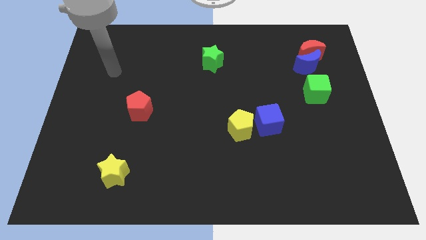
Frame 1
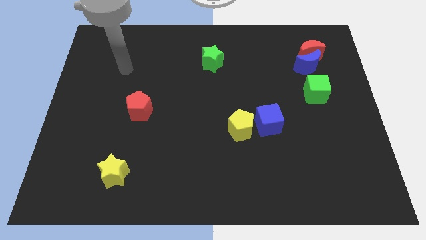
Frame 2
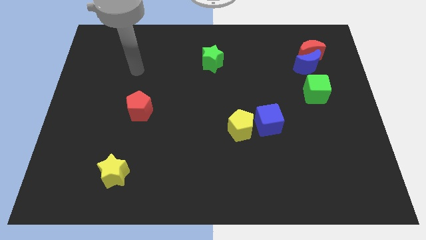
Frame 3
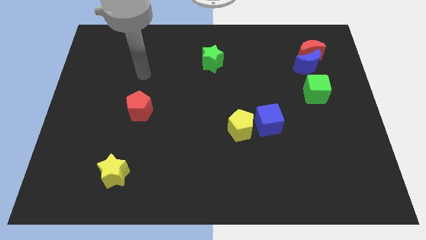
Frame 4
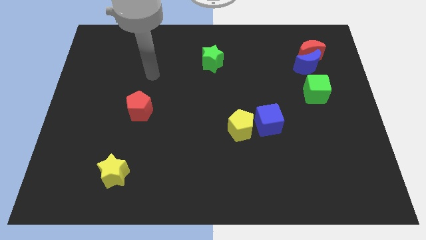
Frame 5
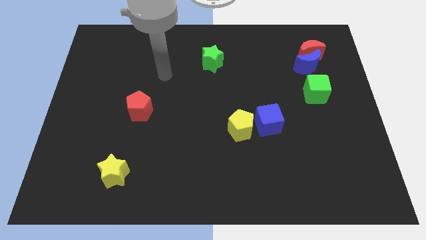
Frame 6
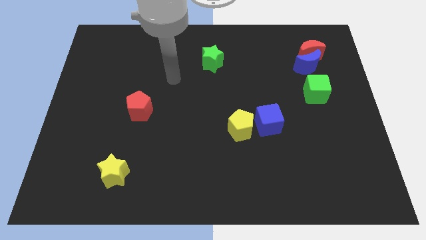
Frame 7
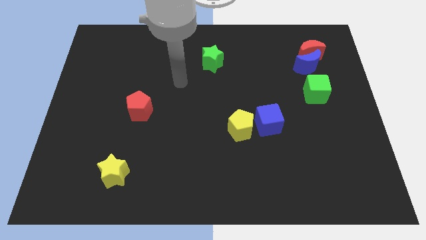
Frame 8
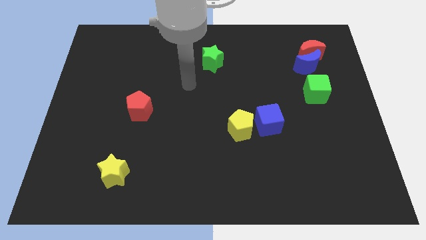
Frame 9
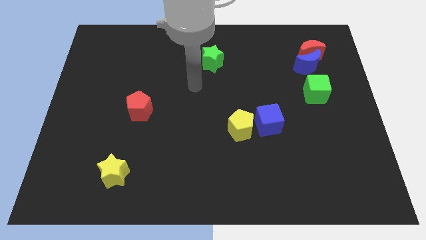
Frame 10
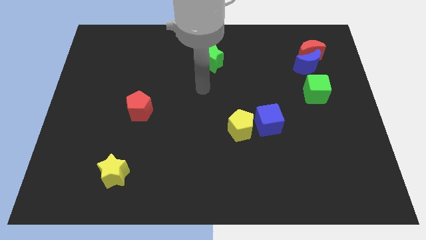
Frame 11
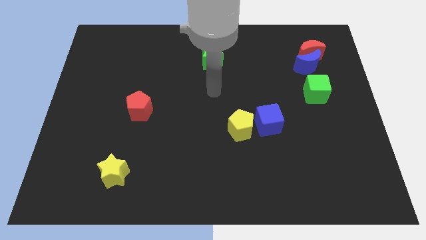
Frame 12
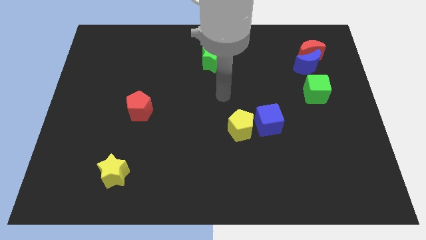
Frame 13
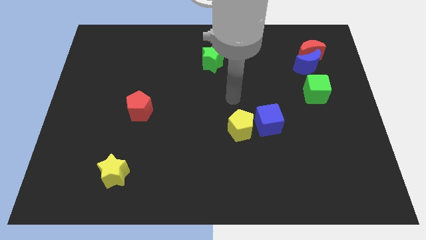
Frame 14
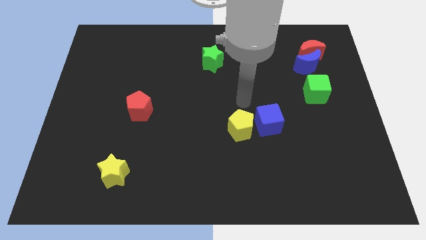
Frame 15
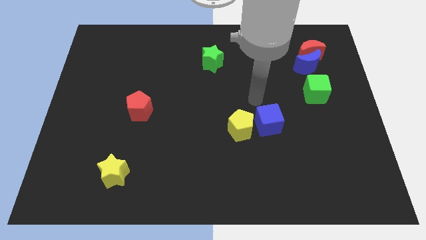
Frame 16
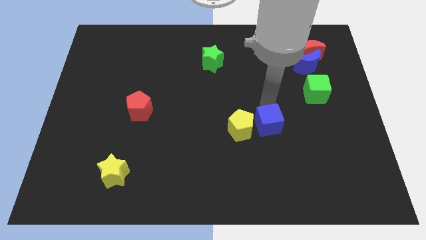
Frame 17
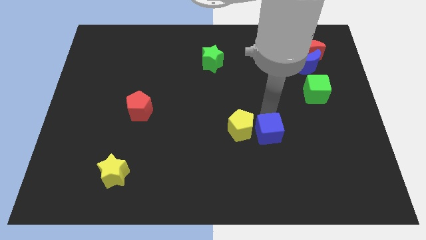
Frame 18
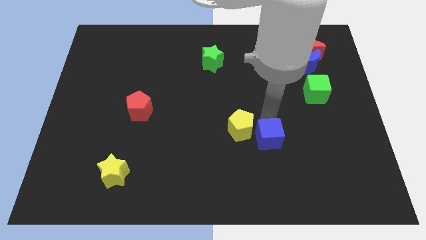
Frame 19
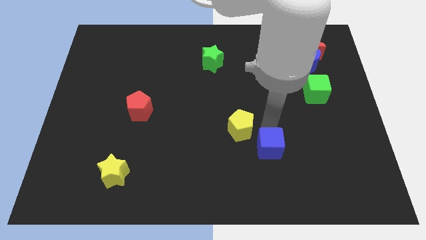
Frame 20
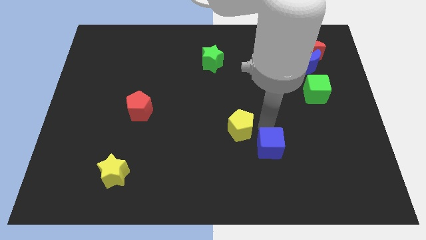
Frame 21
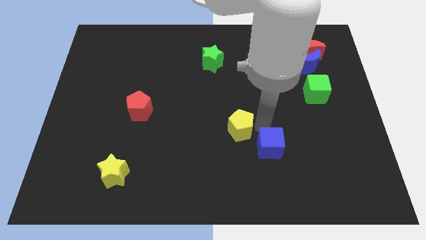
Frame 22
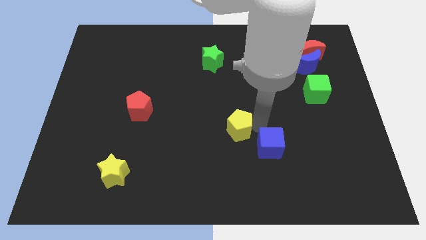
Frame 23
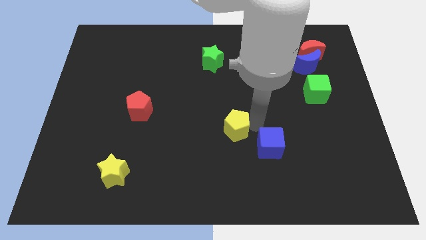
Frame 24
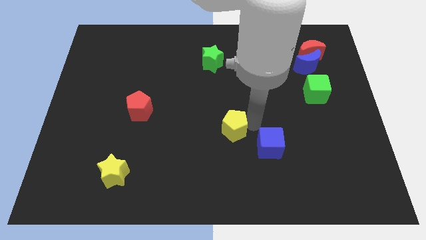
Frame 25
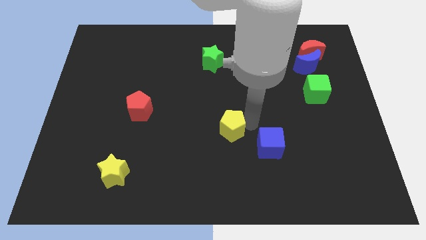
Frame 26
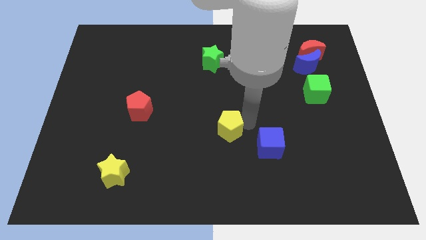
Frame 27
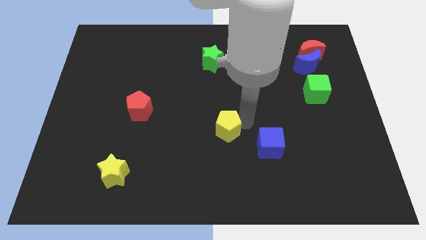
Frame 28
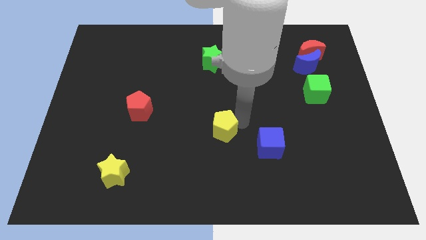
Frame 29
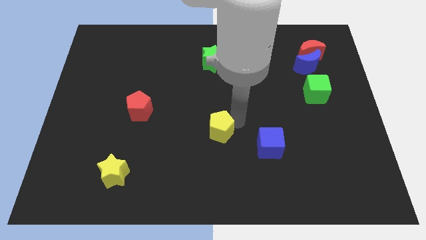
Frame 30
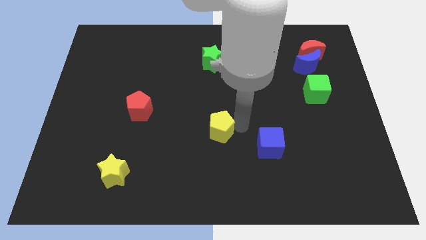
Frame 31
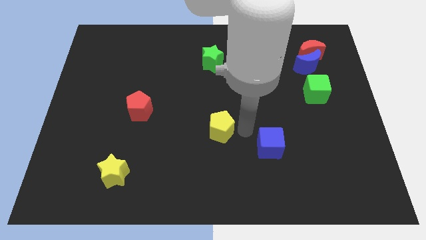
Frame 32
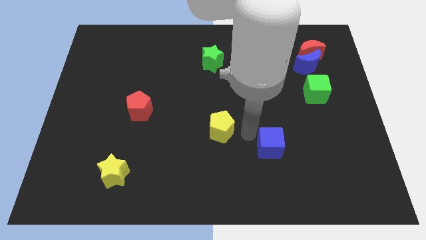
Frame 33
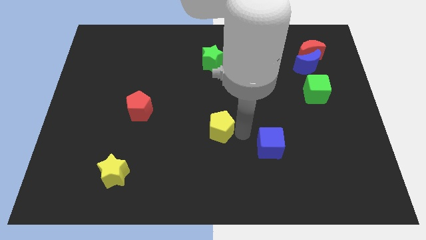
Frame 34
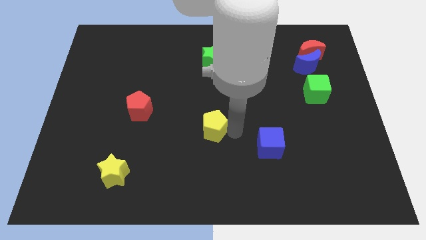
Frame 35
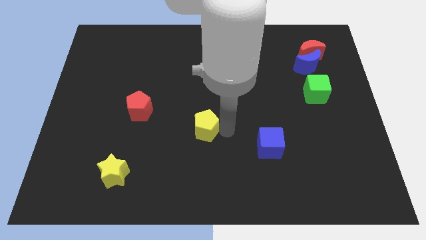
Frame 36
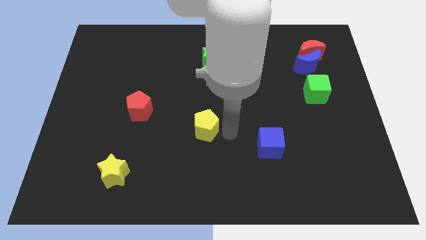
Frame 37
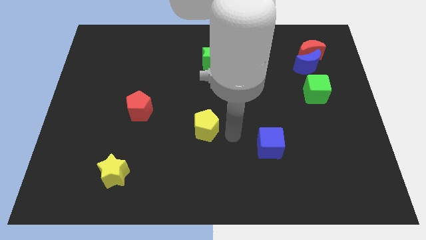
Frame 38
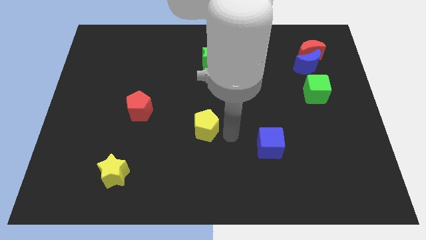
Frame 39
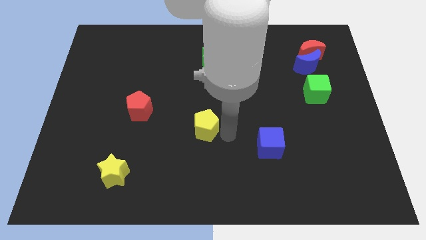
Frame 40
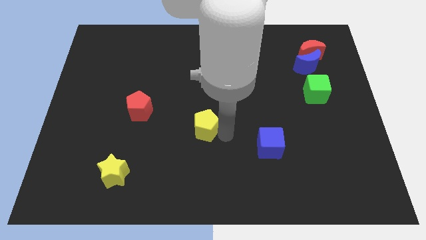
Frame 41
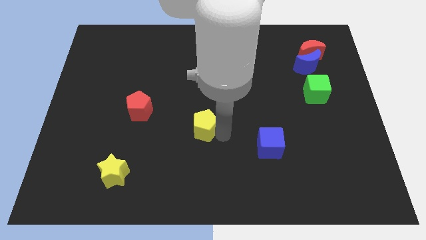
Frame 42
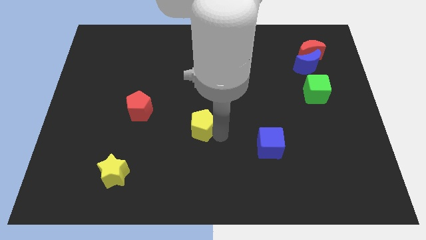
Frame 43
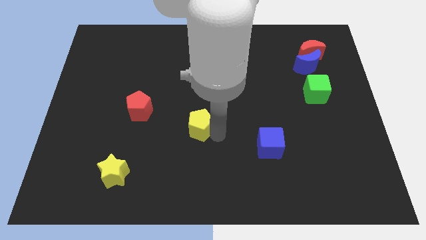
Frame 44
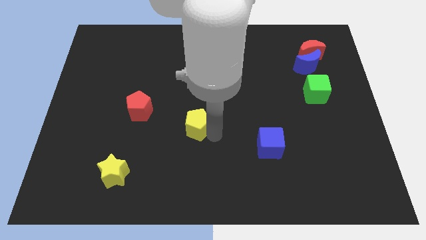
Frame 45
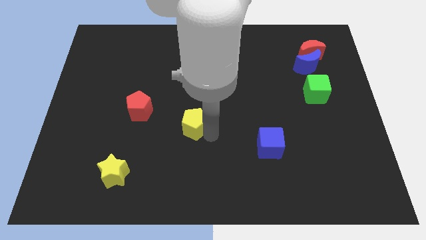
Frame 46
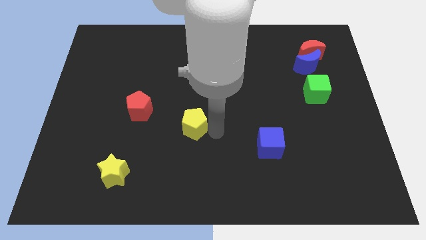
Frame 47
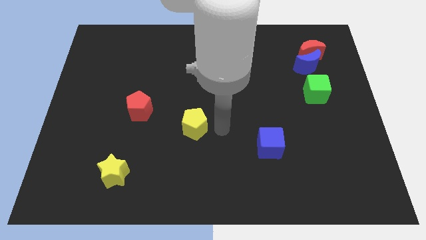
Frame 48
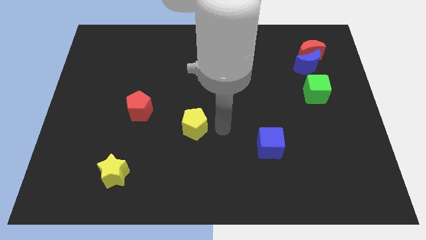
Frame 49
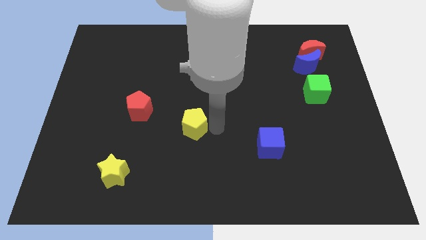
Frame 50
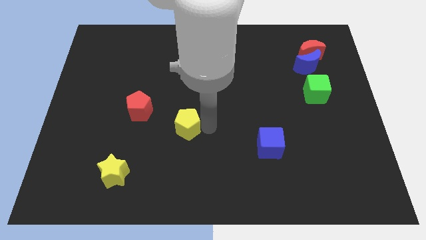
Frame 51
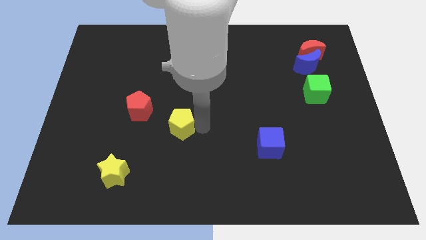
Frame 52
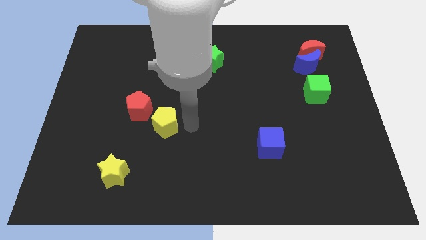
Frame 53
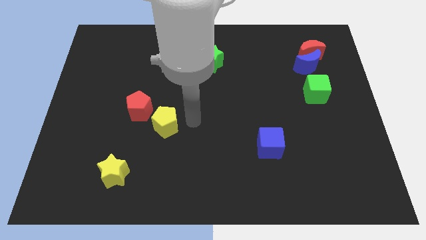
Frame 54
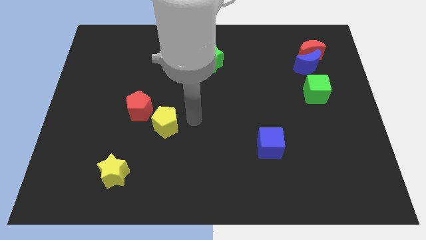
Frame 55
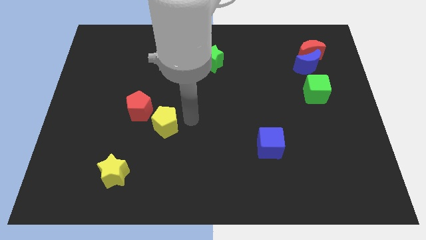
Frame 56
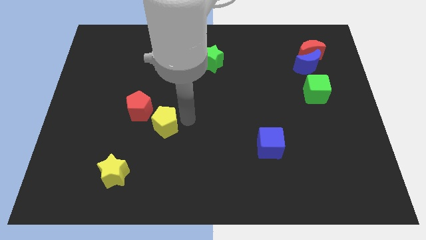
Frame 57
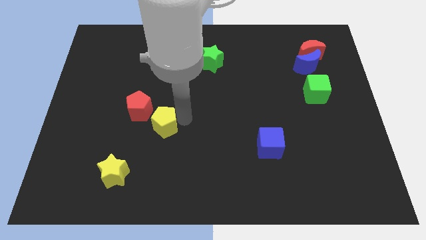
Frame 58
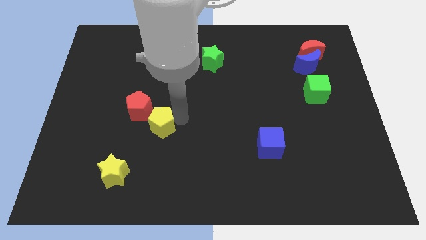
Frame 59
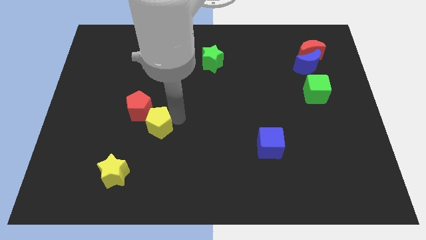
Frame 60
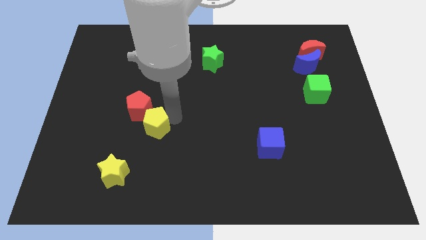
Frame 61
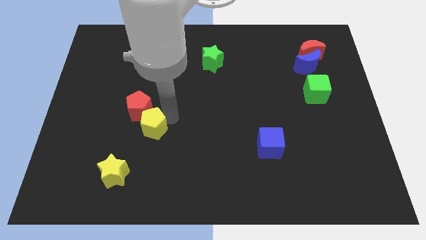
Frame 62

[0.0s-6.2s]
push the yellow pentagon to the left

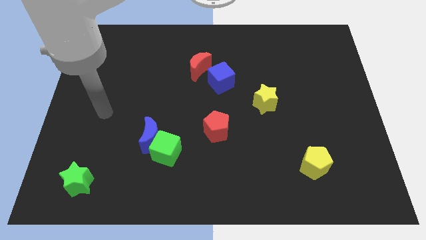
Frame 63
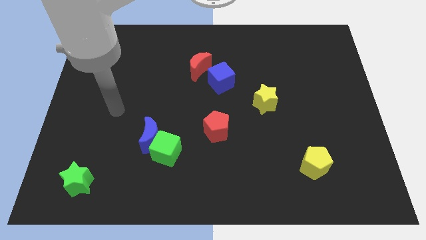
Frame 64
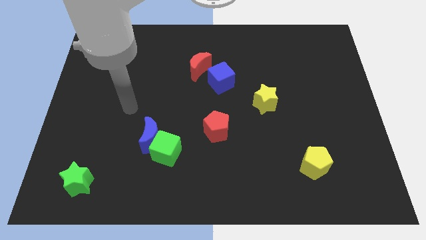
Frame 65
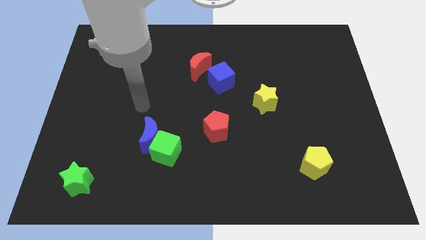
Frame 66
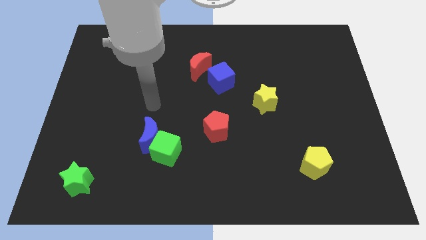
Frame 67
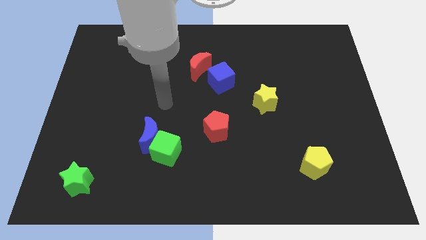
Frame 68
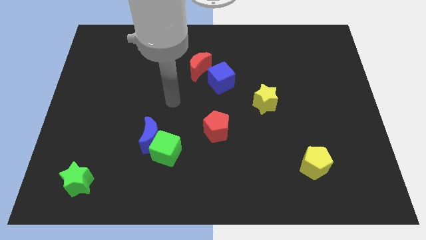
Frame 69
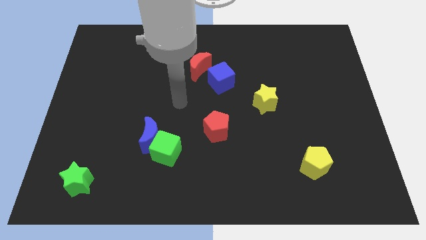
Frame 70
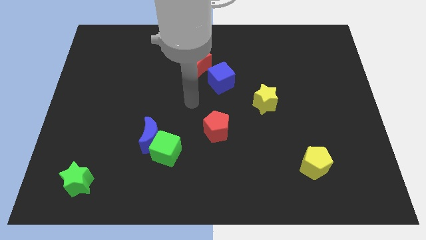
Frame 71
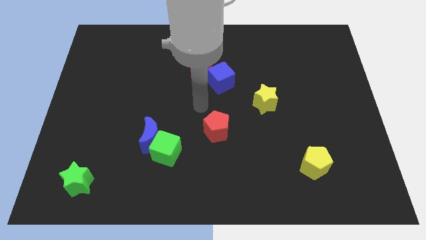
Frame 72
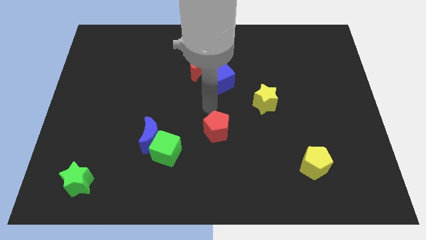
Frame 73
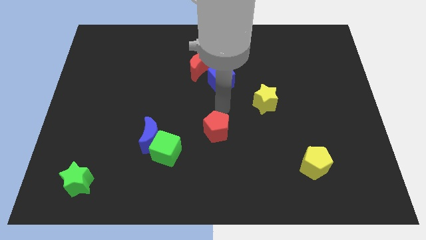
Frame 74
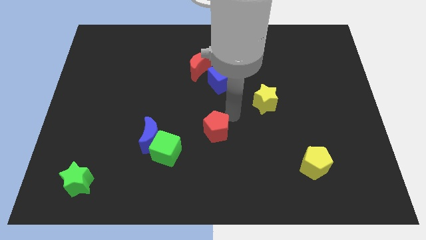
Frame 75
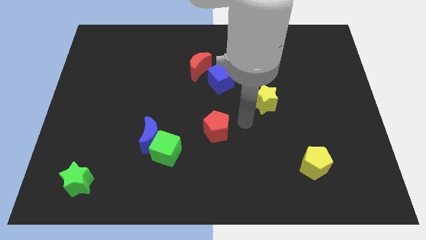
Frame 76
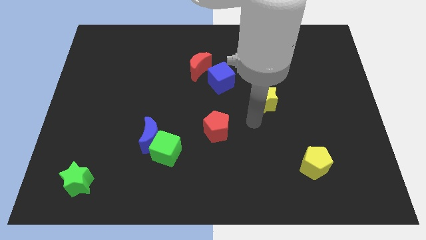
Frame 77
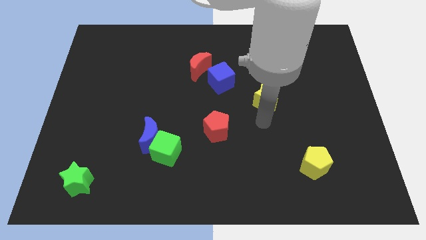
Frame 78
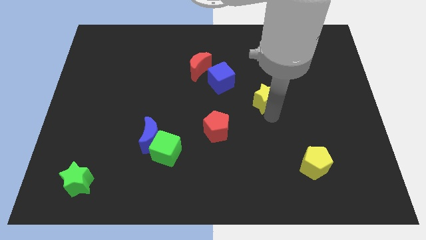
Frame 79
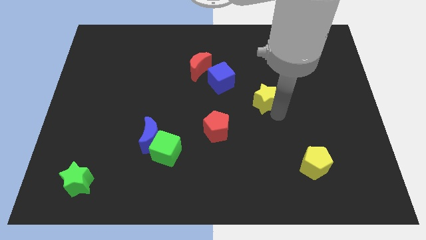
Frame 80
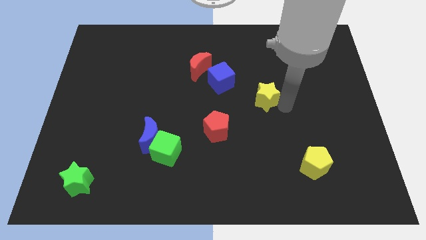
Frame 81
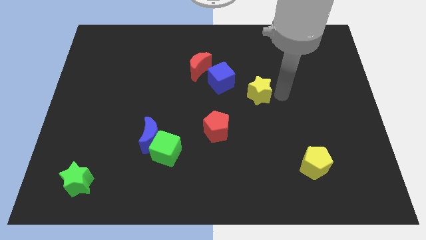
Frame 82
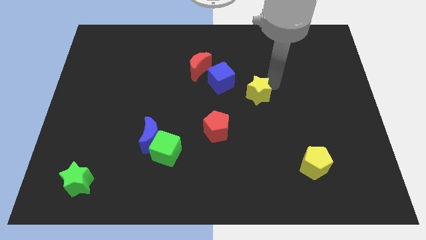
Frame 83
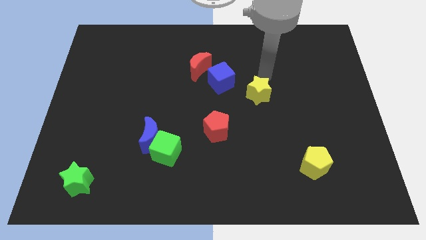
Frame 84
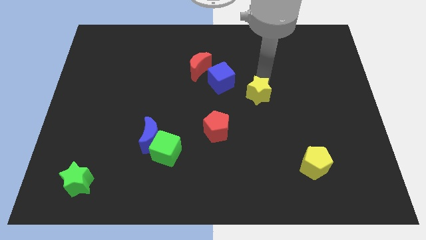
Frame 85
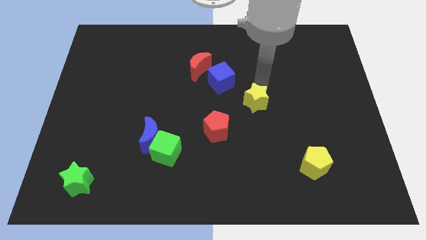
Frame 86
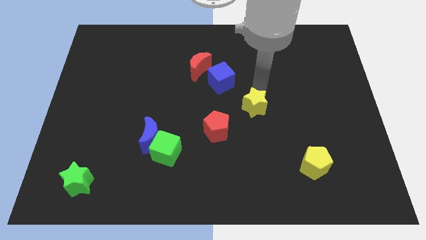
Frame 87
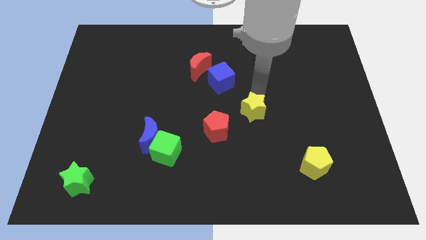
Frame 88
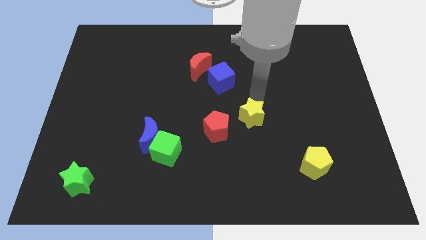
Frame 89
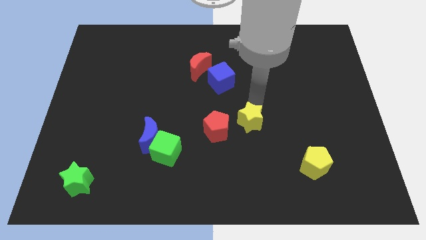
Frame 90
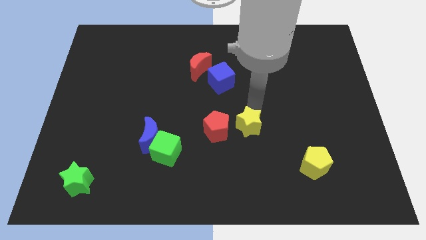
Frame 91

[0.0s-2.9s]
slightly push the yellow star down and then left
